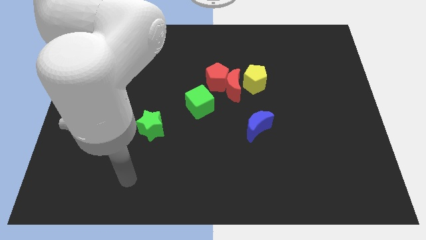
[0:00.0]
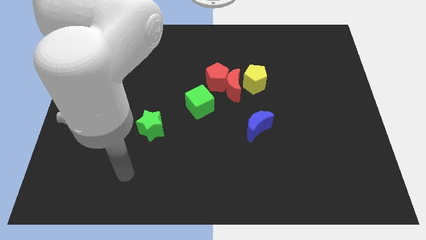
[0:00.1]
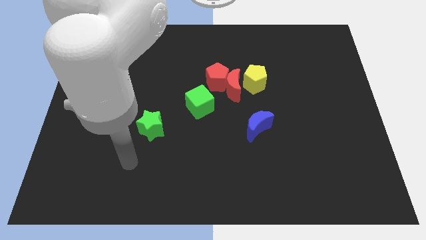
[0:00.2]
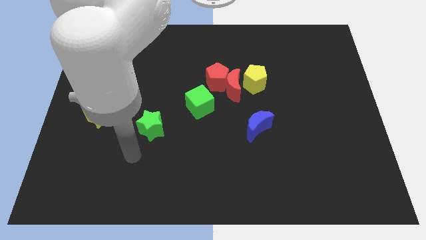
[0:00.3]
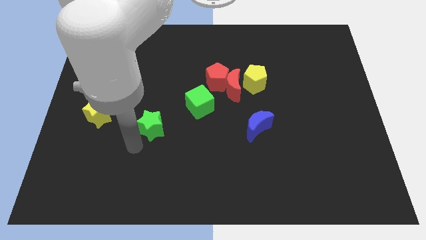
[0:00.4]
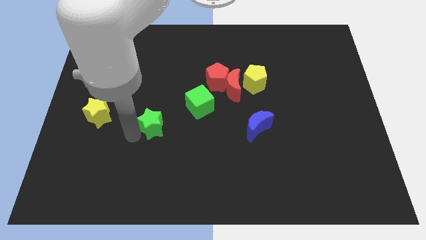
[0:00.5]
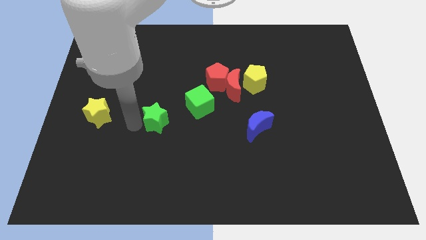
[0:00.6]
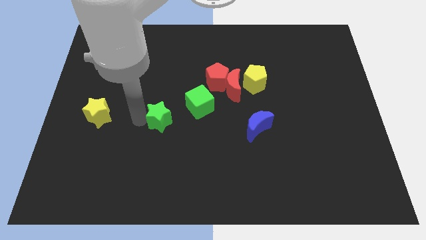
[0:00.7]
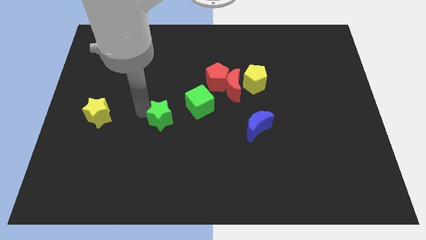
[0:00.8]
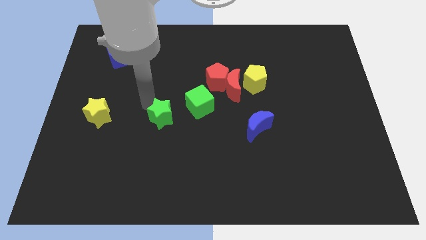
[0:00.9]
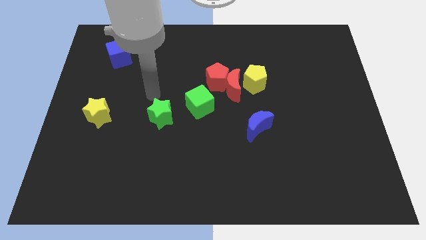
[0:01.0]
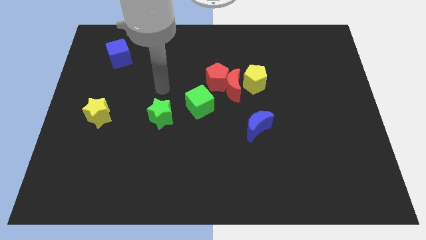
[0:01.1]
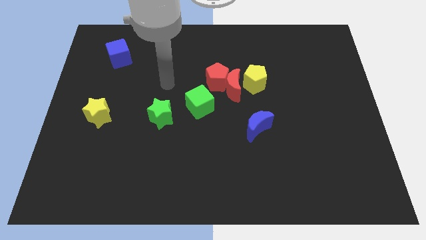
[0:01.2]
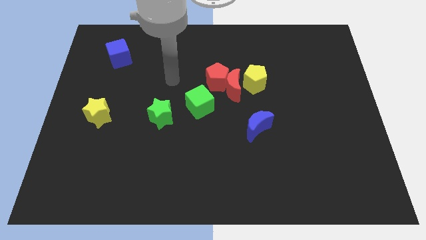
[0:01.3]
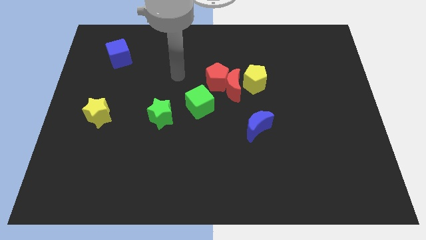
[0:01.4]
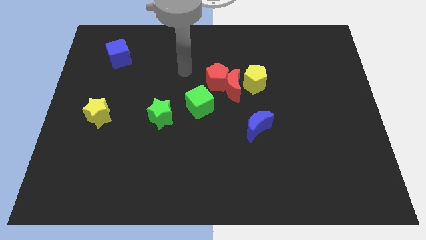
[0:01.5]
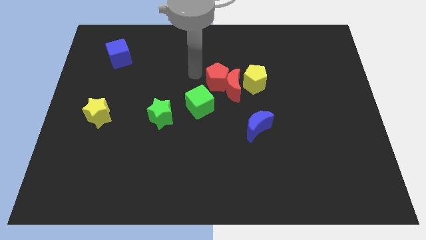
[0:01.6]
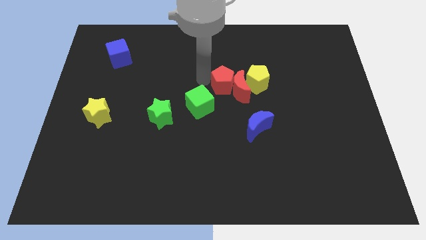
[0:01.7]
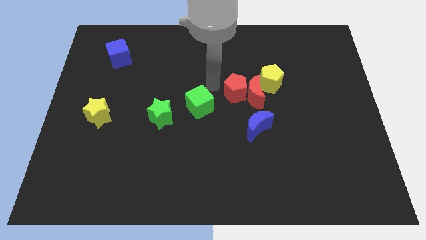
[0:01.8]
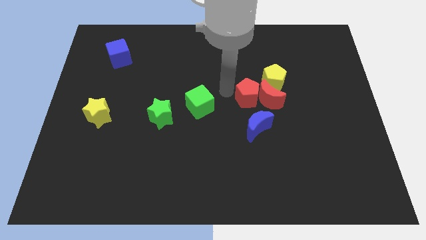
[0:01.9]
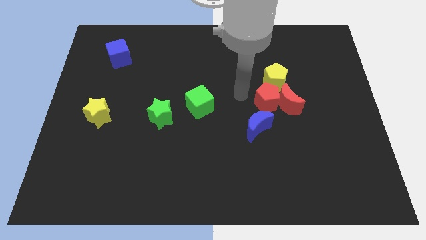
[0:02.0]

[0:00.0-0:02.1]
separate the red moon from the clump

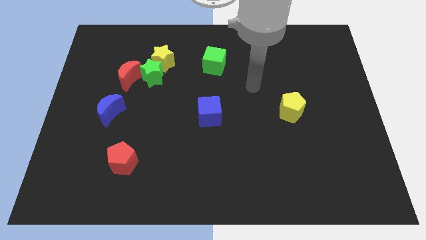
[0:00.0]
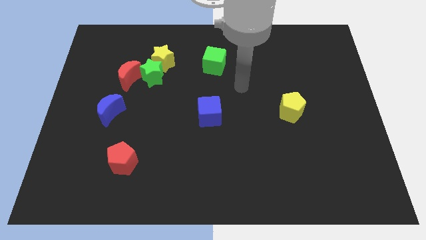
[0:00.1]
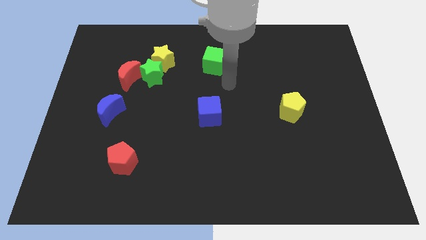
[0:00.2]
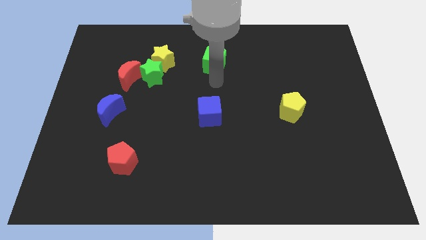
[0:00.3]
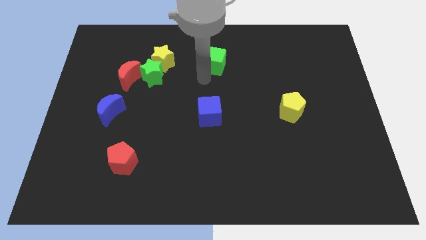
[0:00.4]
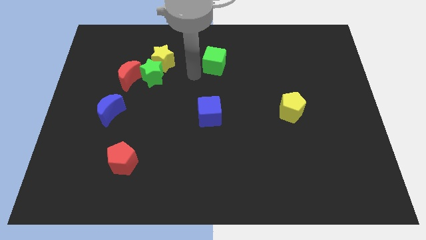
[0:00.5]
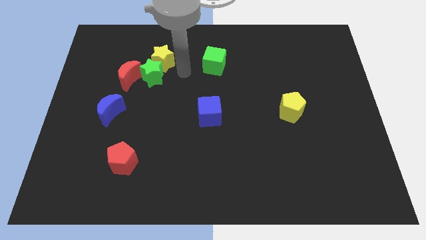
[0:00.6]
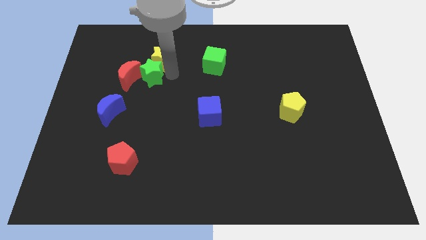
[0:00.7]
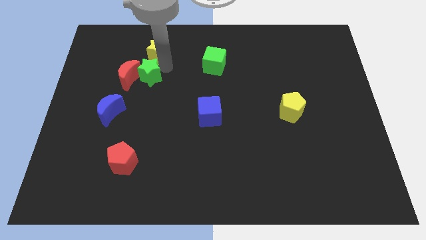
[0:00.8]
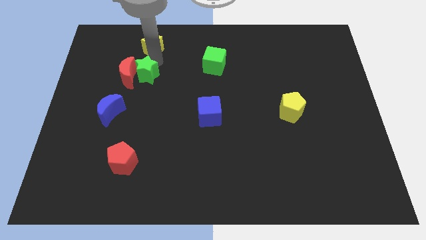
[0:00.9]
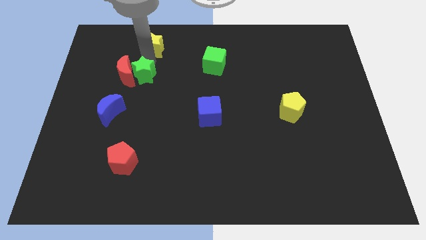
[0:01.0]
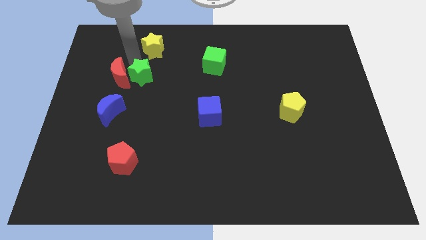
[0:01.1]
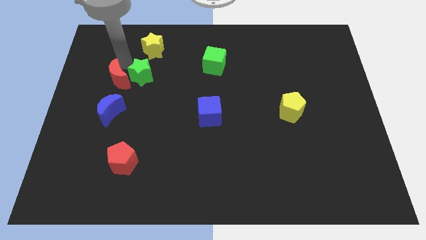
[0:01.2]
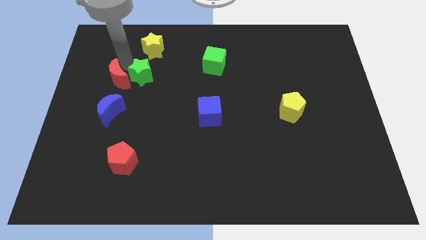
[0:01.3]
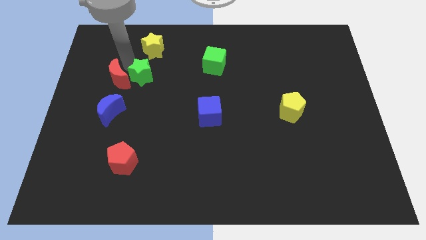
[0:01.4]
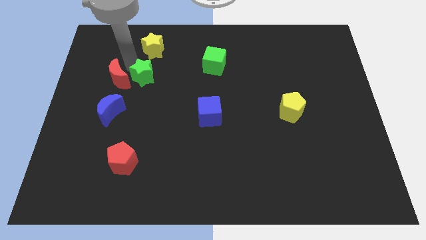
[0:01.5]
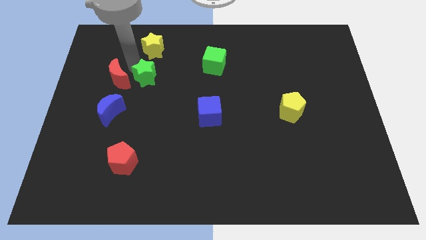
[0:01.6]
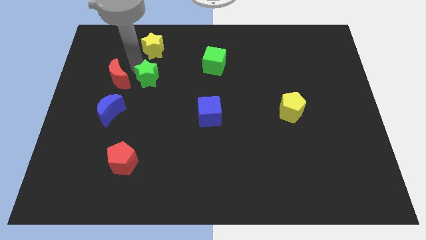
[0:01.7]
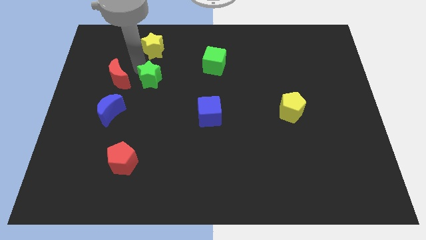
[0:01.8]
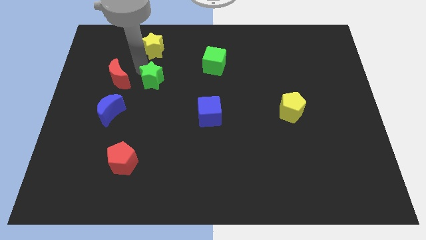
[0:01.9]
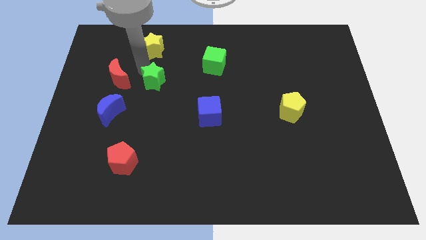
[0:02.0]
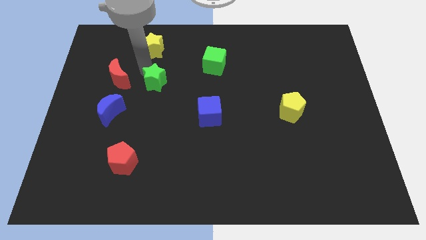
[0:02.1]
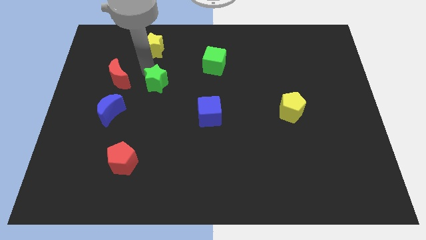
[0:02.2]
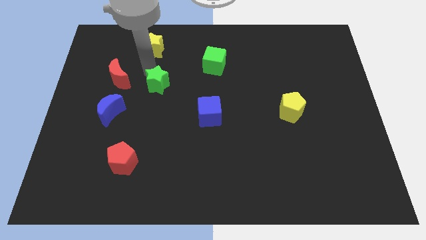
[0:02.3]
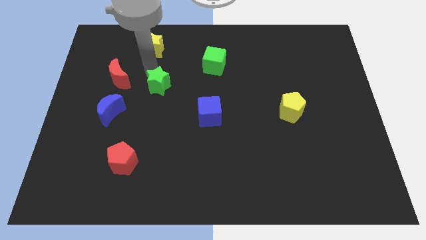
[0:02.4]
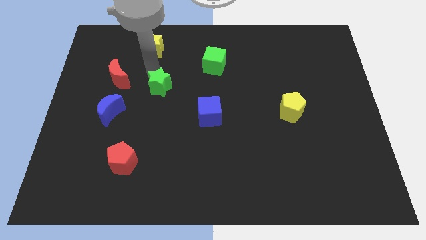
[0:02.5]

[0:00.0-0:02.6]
move the green star away from the yellow star and red moon

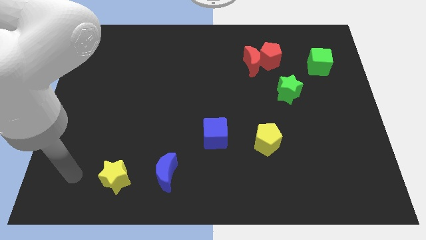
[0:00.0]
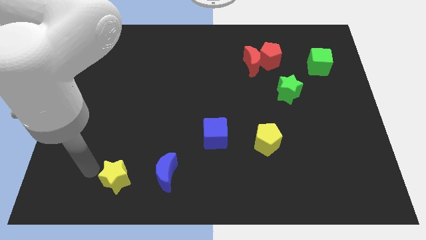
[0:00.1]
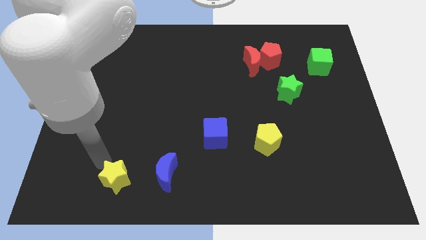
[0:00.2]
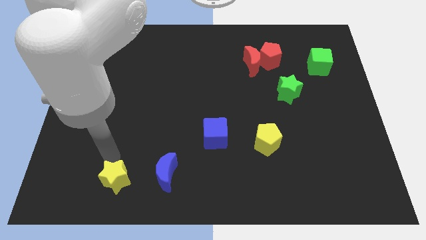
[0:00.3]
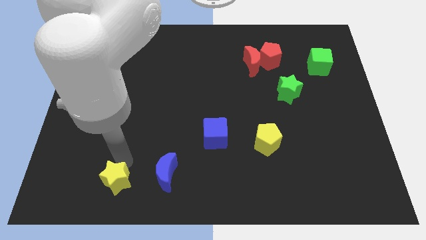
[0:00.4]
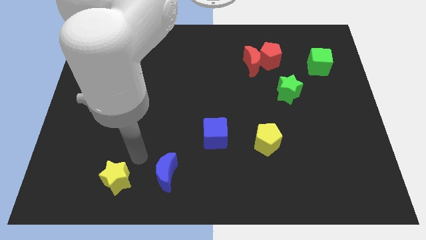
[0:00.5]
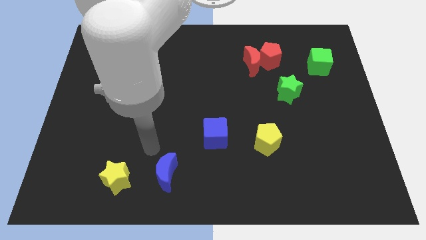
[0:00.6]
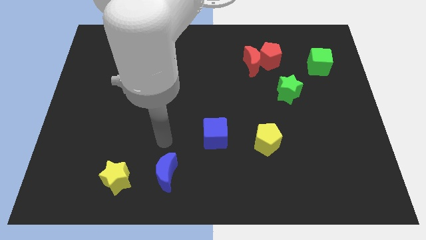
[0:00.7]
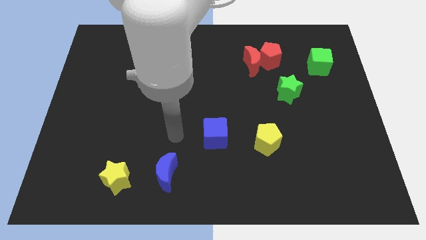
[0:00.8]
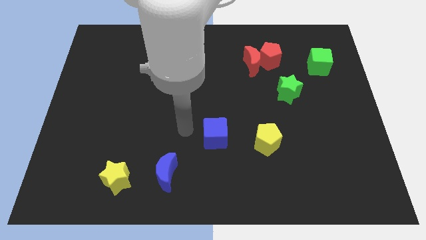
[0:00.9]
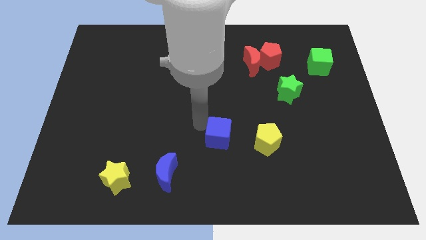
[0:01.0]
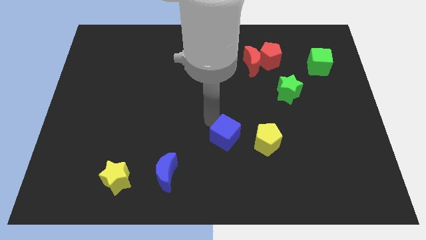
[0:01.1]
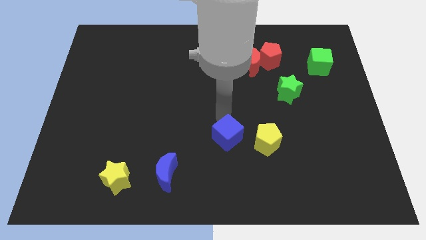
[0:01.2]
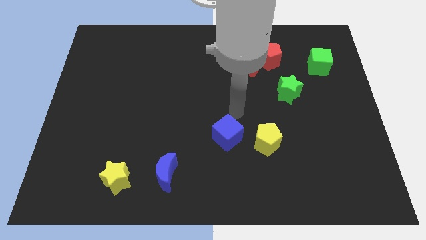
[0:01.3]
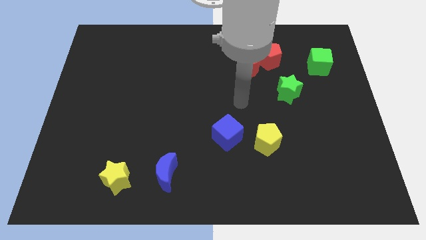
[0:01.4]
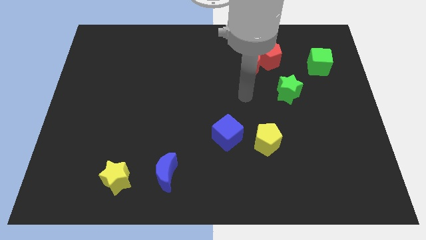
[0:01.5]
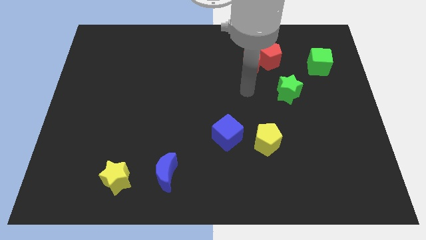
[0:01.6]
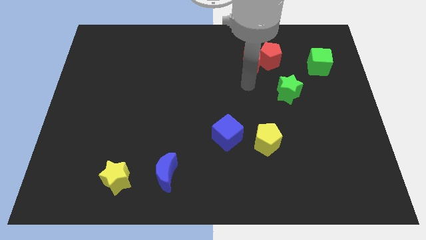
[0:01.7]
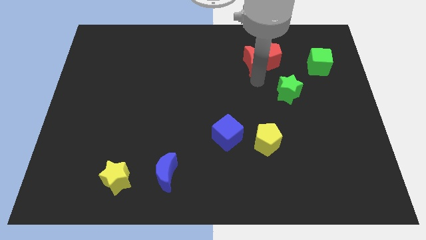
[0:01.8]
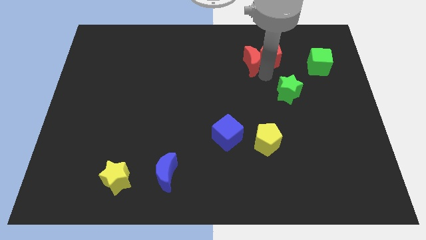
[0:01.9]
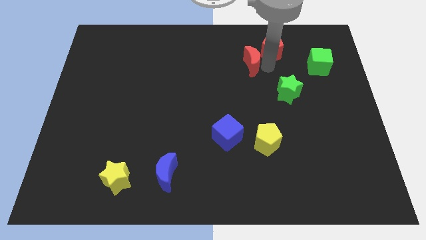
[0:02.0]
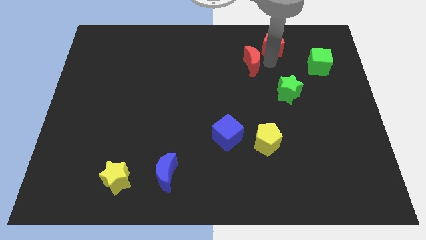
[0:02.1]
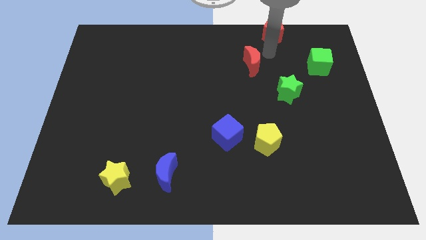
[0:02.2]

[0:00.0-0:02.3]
move the red moon away from the red pentagon

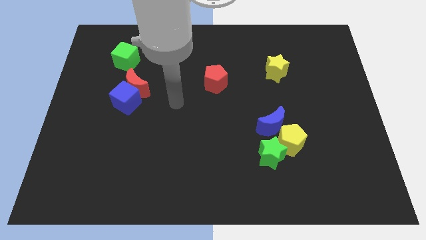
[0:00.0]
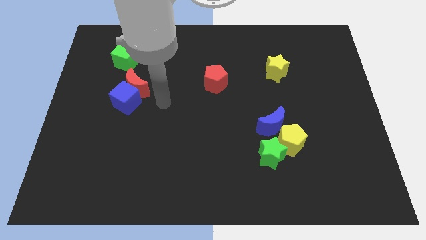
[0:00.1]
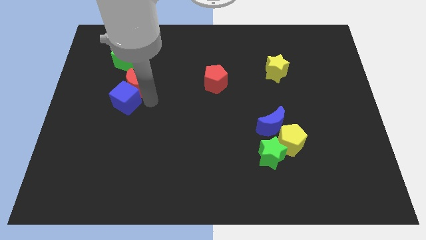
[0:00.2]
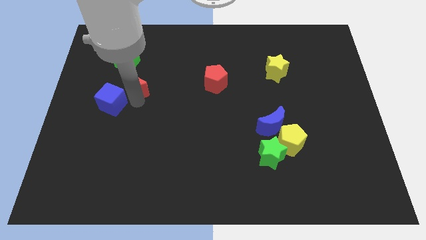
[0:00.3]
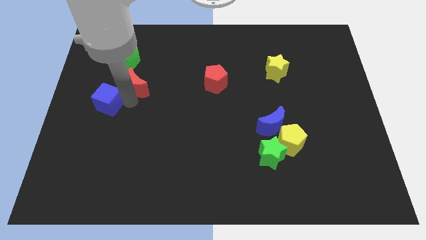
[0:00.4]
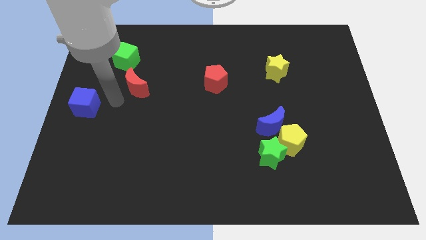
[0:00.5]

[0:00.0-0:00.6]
pull the red moon apart from the blue cube

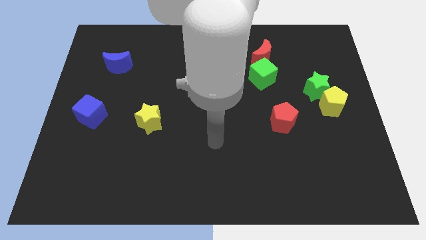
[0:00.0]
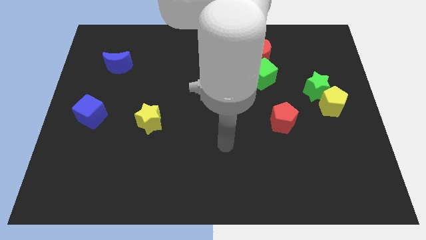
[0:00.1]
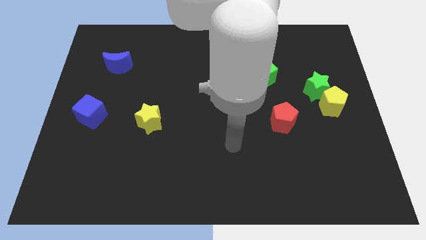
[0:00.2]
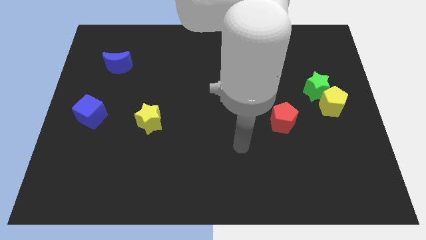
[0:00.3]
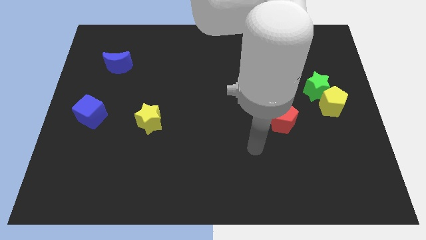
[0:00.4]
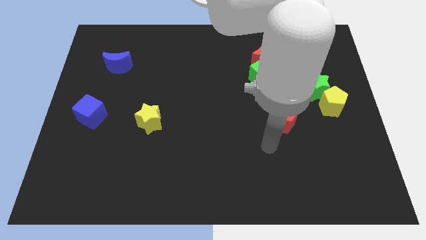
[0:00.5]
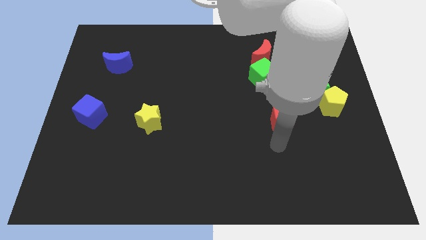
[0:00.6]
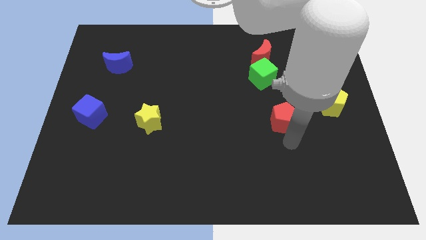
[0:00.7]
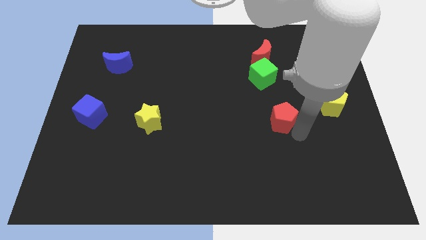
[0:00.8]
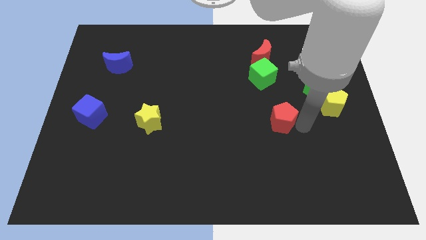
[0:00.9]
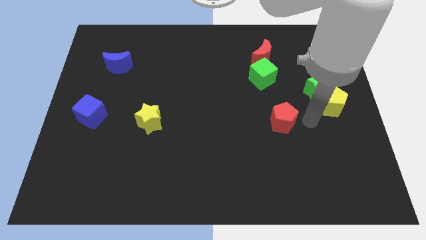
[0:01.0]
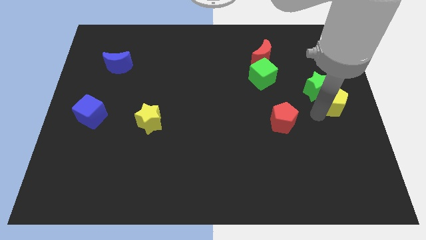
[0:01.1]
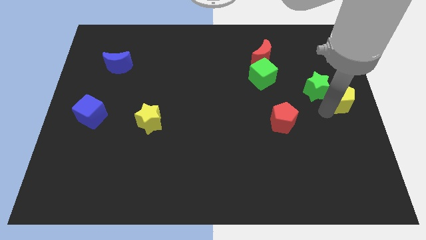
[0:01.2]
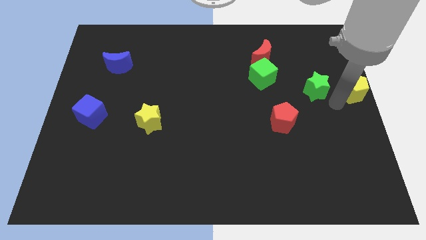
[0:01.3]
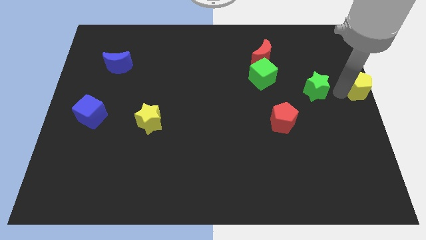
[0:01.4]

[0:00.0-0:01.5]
pull the green star apart from the yellow pentagon

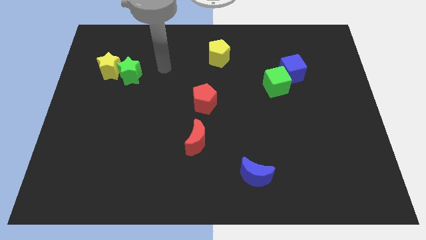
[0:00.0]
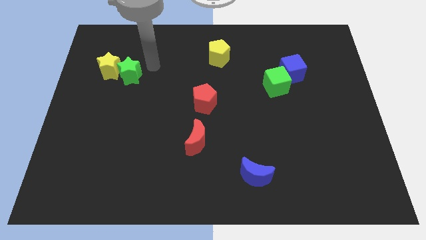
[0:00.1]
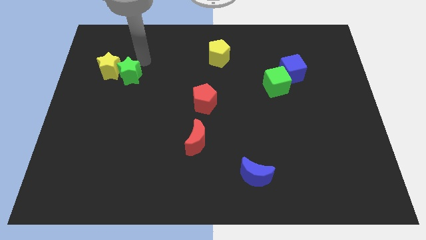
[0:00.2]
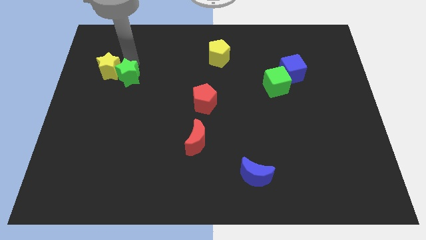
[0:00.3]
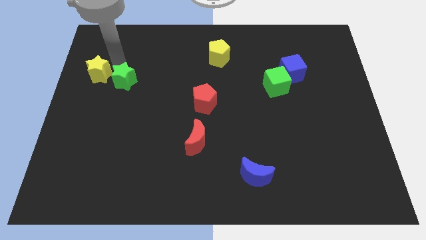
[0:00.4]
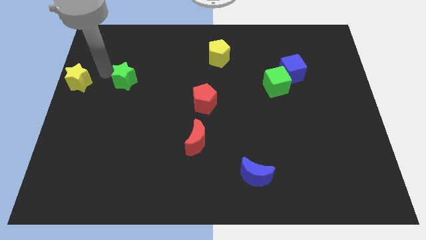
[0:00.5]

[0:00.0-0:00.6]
separate the green star from the yellow star
